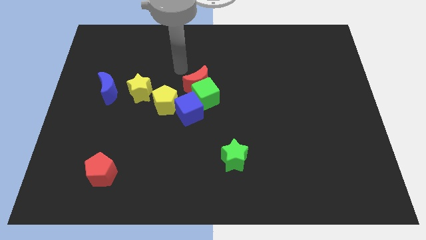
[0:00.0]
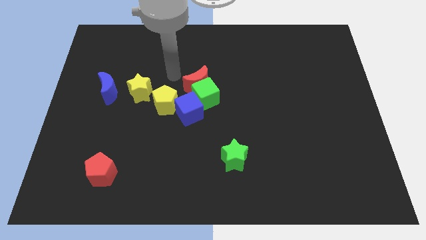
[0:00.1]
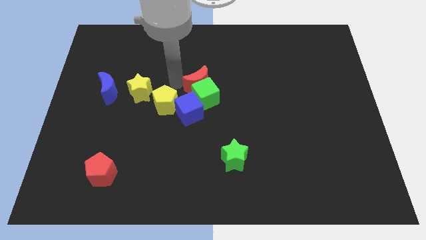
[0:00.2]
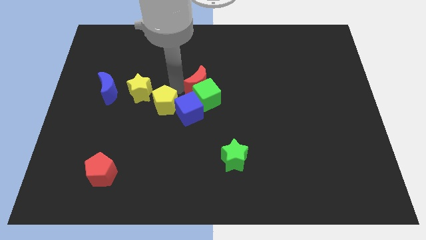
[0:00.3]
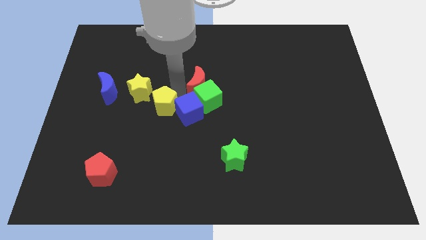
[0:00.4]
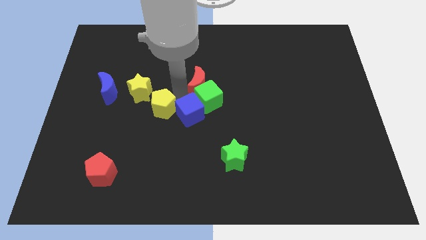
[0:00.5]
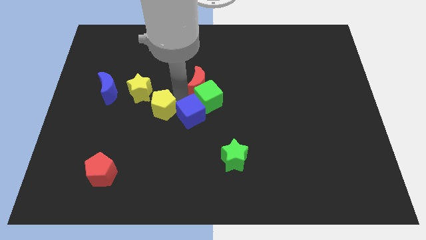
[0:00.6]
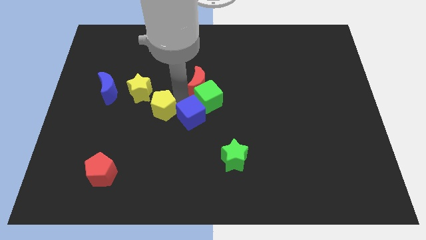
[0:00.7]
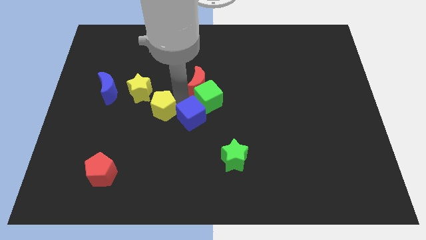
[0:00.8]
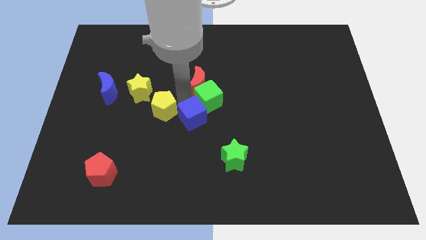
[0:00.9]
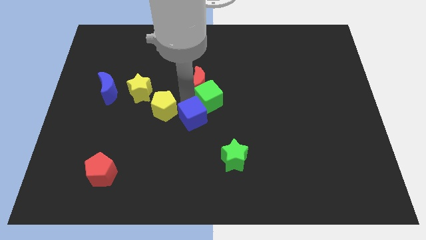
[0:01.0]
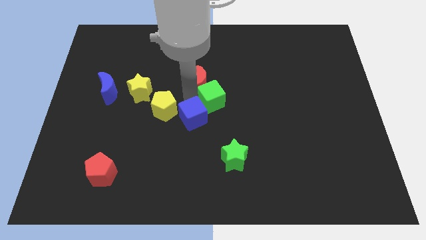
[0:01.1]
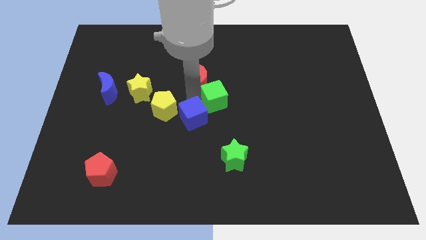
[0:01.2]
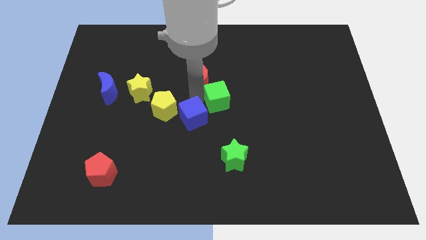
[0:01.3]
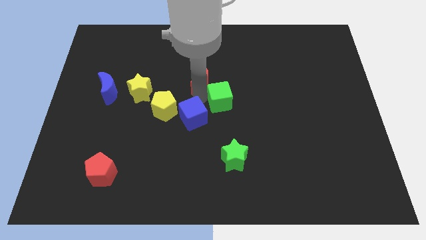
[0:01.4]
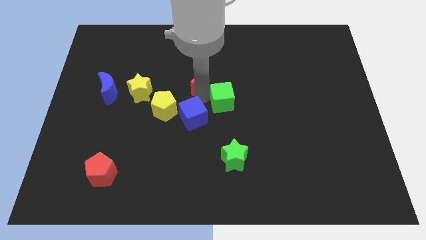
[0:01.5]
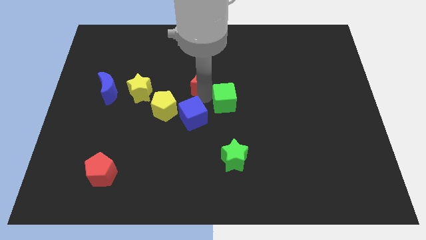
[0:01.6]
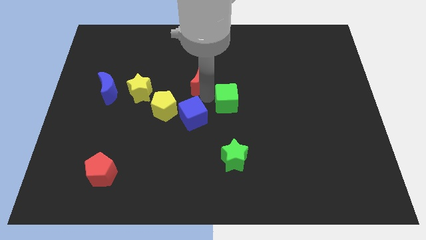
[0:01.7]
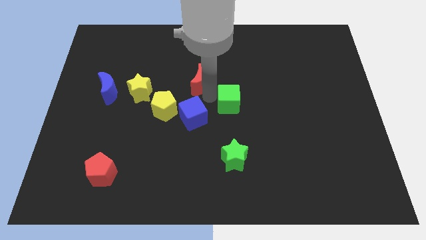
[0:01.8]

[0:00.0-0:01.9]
pull the green cube apart from the clump

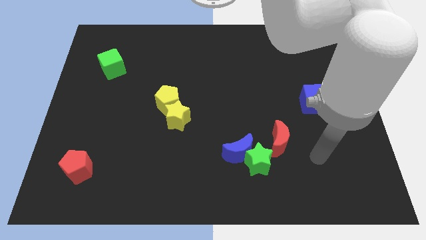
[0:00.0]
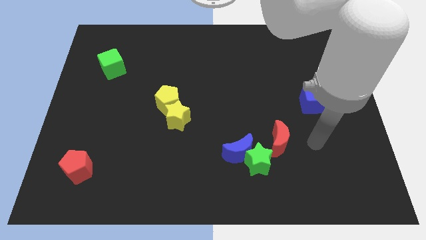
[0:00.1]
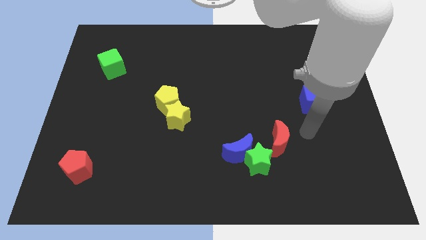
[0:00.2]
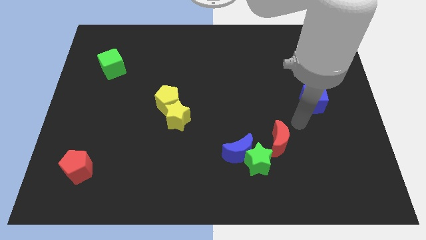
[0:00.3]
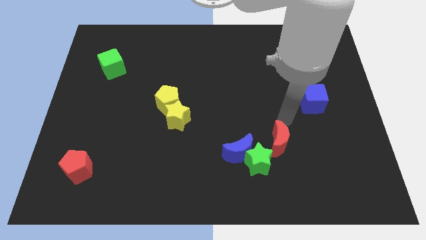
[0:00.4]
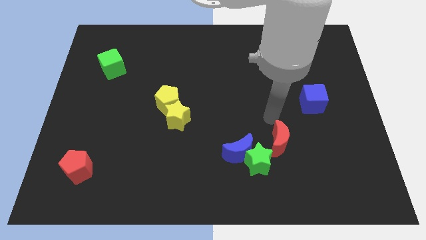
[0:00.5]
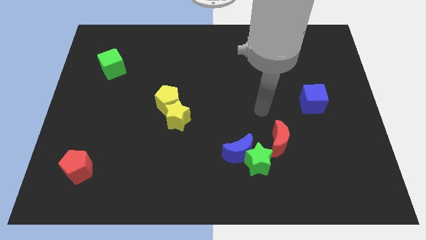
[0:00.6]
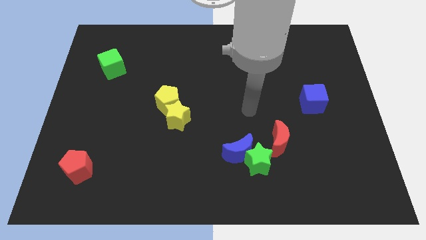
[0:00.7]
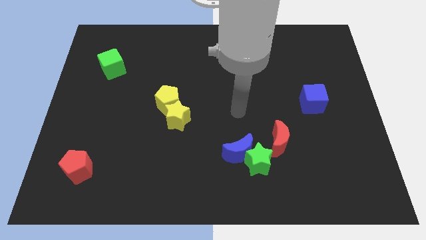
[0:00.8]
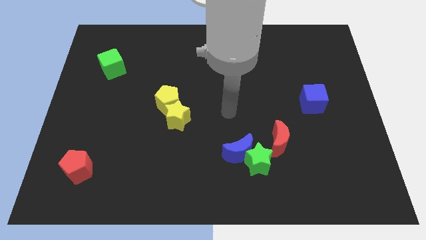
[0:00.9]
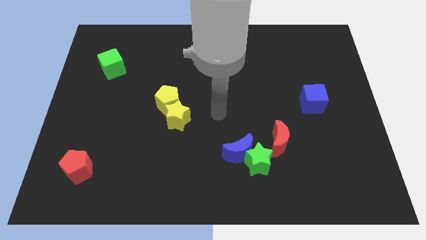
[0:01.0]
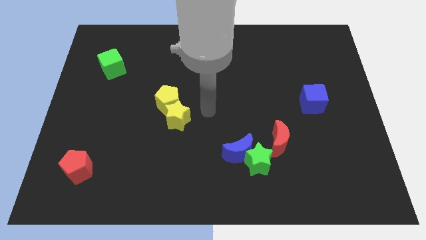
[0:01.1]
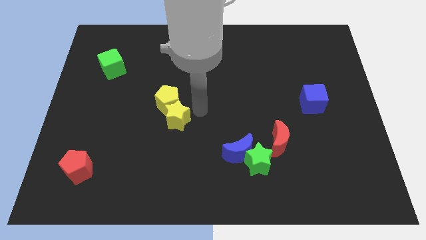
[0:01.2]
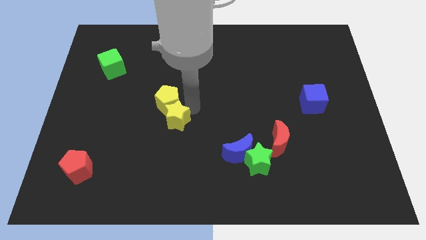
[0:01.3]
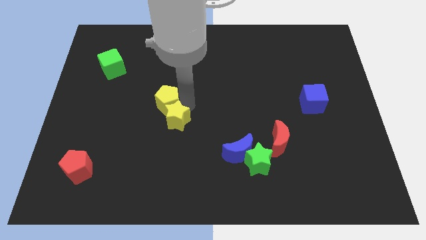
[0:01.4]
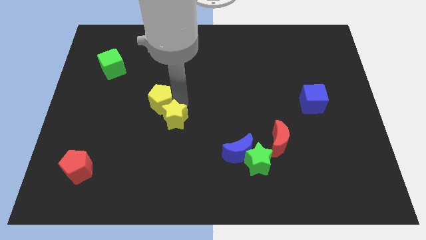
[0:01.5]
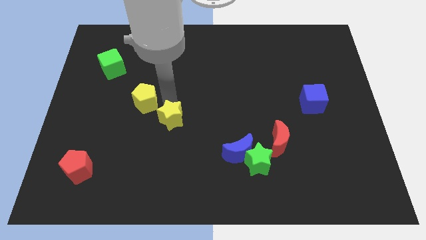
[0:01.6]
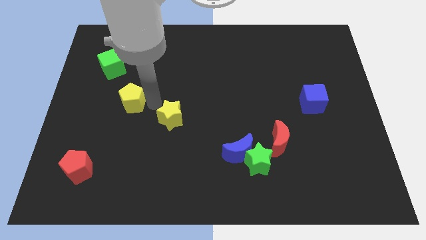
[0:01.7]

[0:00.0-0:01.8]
pull the yellow star apart from the yellow pentagon

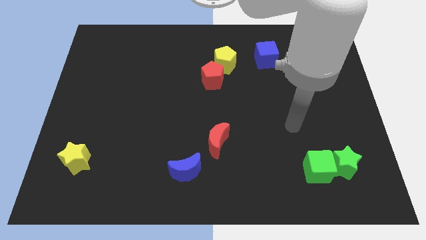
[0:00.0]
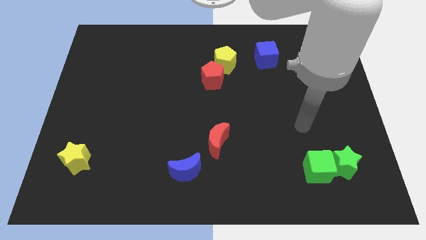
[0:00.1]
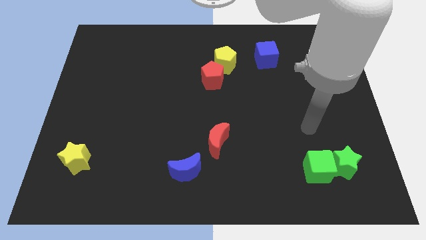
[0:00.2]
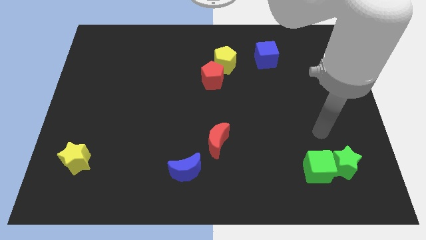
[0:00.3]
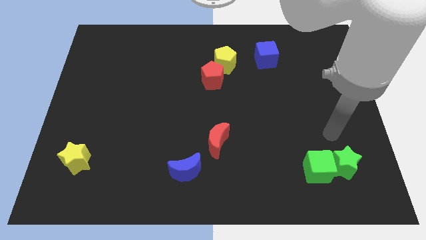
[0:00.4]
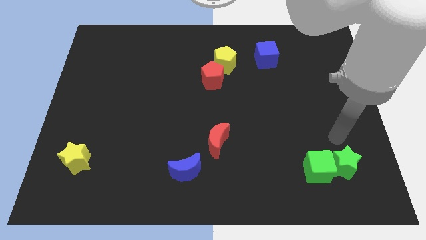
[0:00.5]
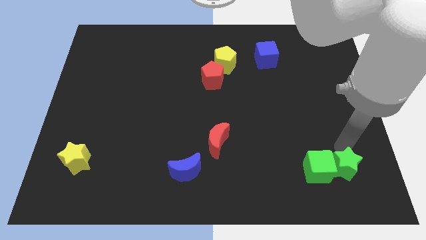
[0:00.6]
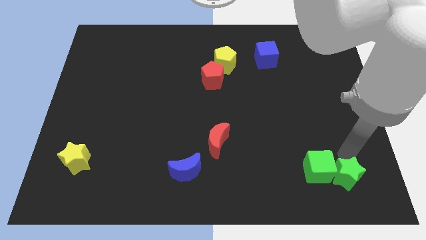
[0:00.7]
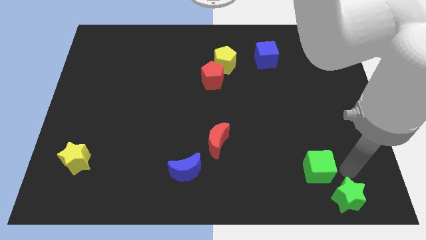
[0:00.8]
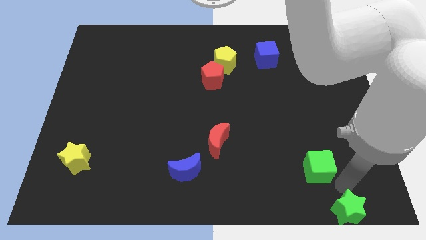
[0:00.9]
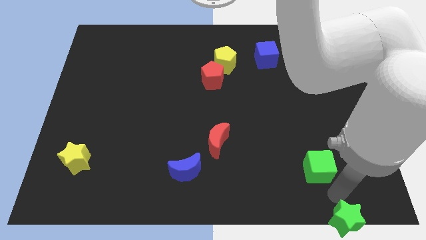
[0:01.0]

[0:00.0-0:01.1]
move the green cube away from the green star

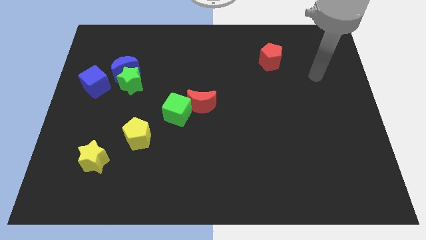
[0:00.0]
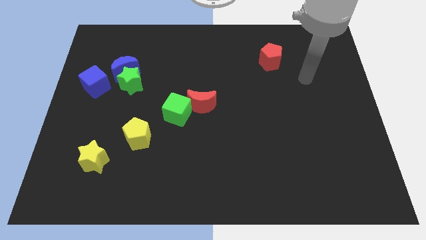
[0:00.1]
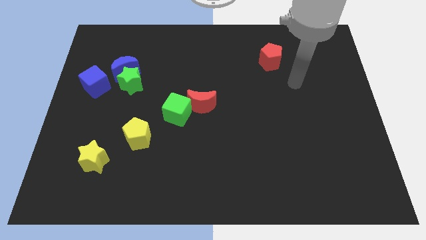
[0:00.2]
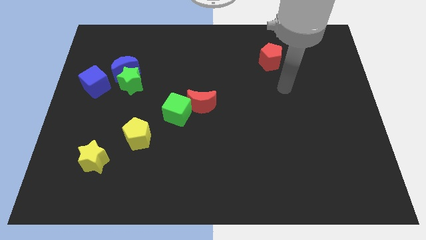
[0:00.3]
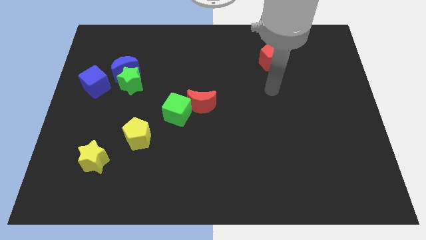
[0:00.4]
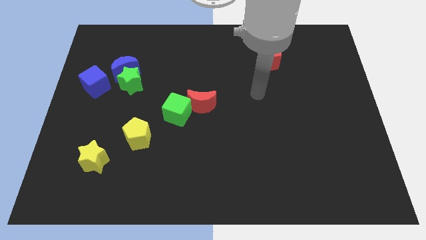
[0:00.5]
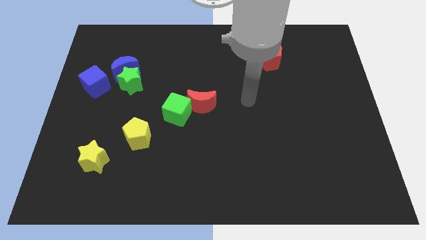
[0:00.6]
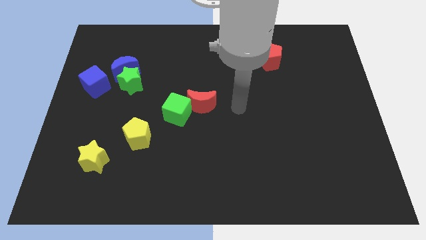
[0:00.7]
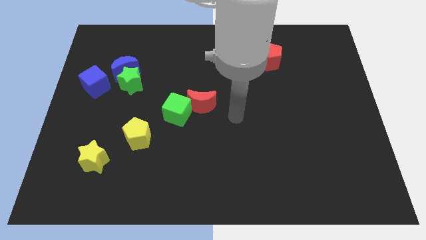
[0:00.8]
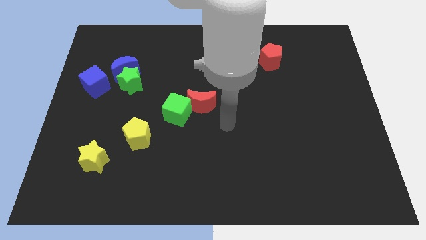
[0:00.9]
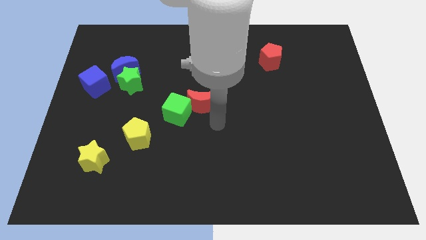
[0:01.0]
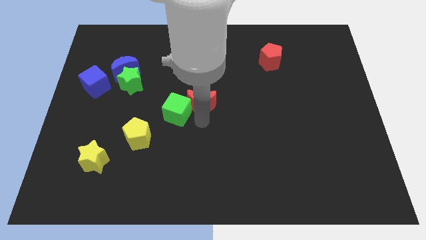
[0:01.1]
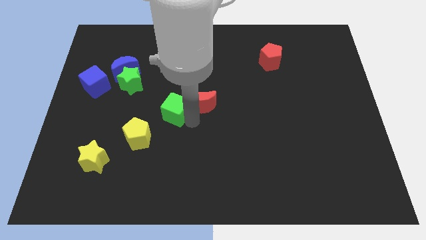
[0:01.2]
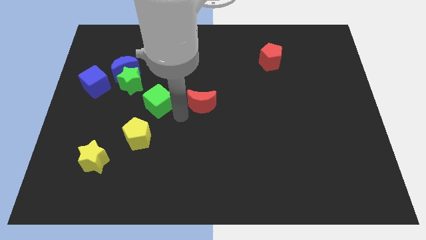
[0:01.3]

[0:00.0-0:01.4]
move the red moon away from the green cube

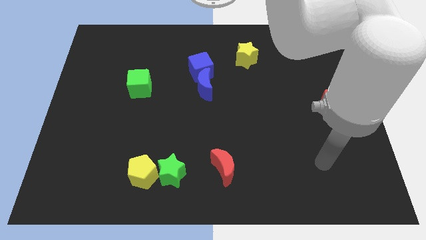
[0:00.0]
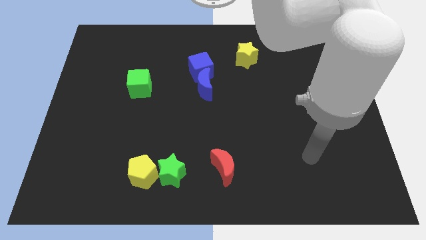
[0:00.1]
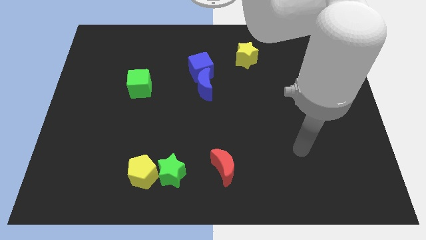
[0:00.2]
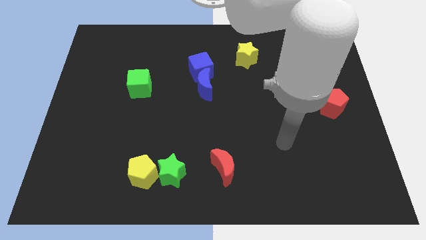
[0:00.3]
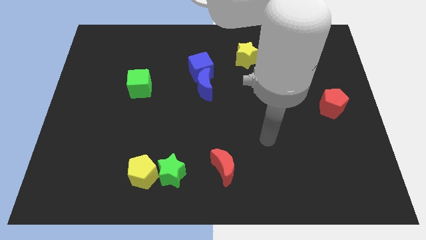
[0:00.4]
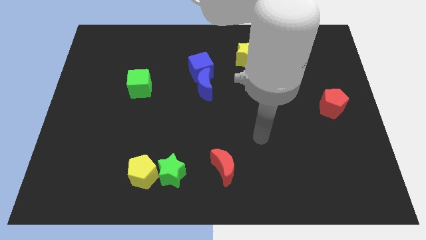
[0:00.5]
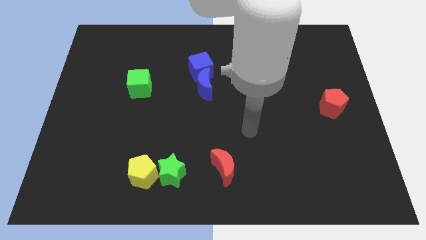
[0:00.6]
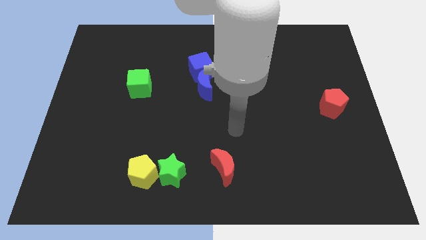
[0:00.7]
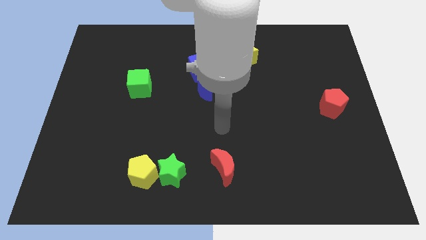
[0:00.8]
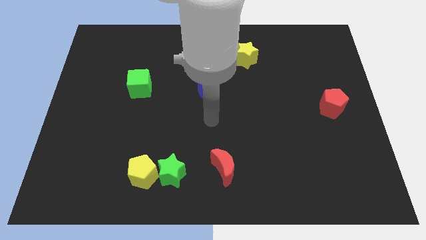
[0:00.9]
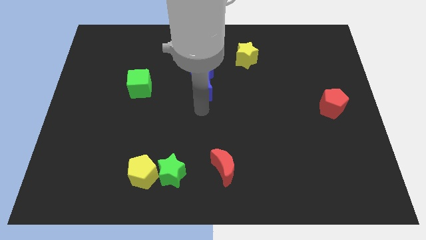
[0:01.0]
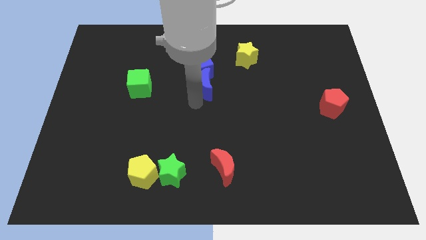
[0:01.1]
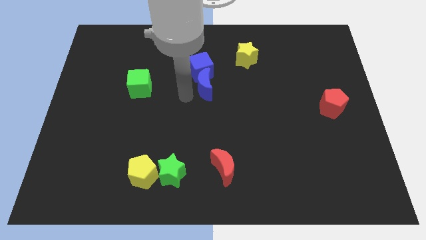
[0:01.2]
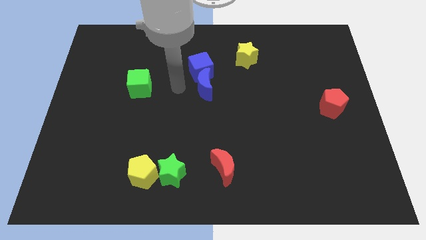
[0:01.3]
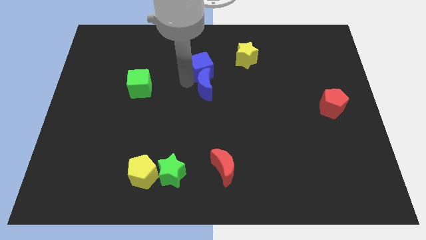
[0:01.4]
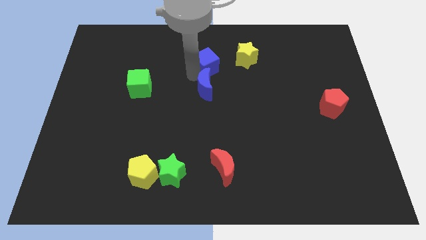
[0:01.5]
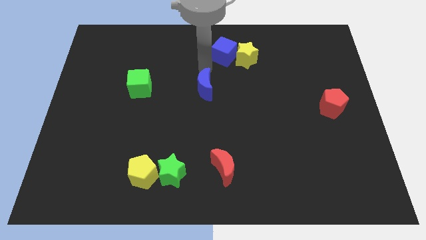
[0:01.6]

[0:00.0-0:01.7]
pull the blue moon apart from the blue cube

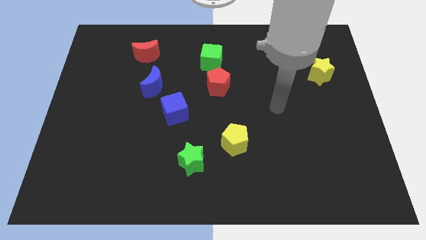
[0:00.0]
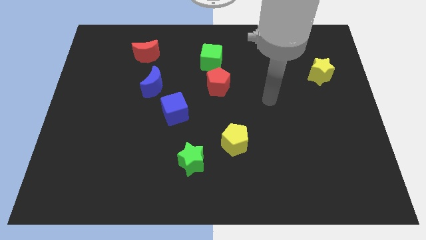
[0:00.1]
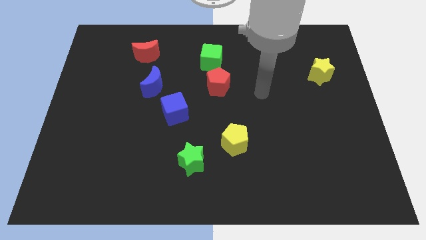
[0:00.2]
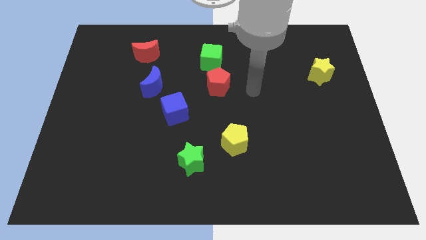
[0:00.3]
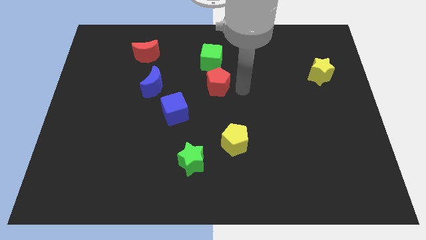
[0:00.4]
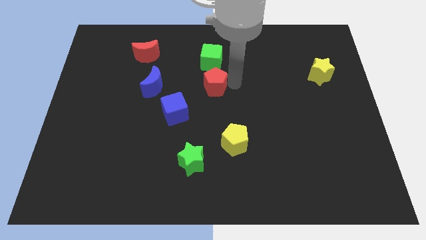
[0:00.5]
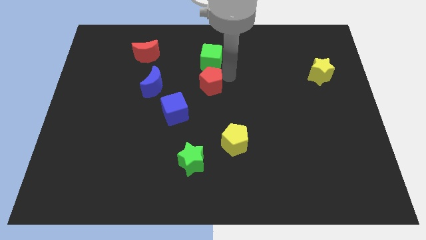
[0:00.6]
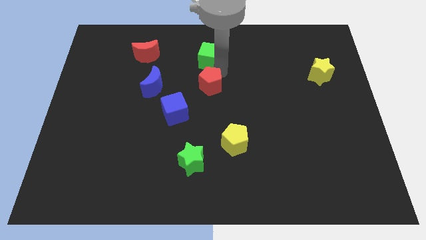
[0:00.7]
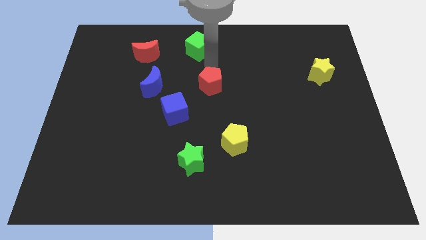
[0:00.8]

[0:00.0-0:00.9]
move the red pentagon away from the green cube

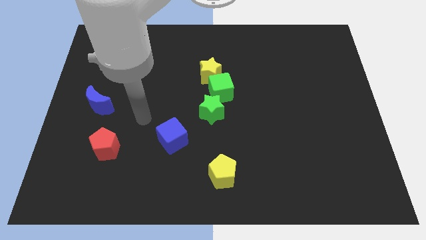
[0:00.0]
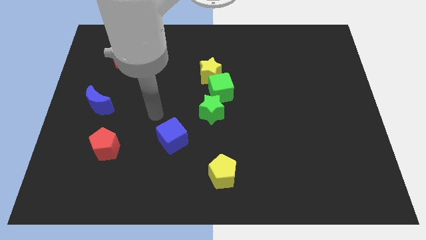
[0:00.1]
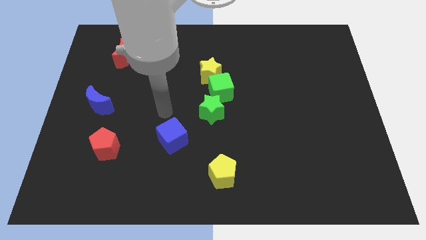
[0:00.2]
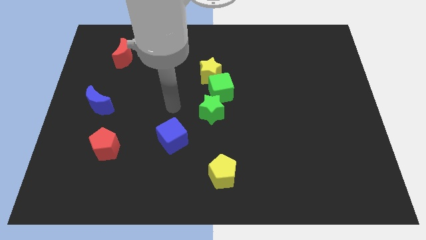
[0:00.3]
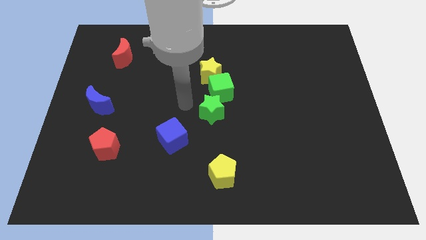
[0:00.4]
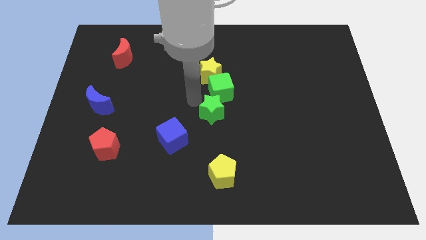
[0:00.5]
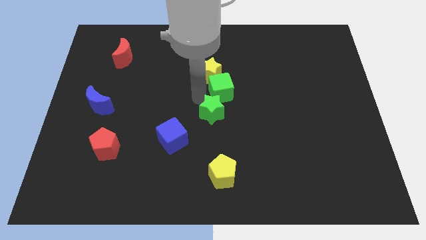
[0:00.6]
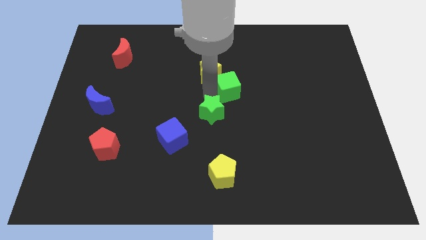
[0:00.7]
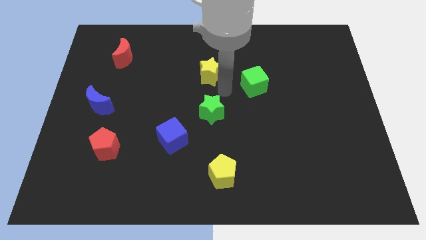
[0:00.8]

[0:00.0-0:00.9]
pull the yellow star apart from the green cube
